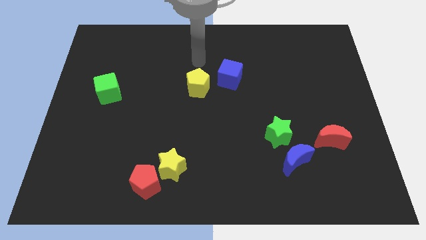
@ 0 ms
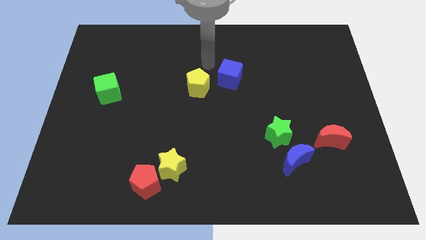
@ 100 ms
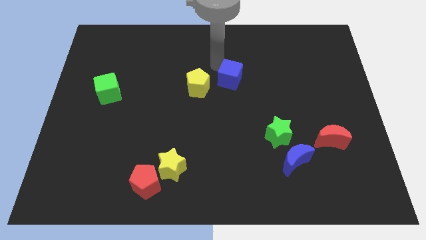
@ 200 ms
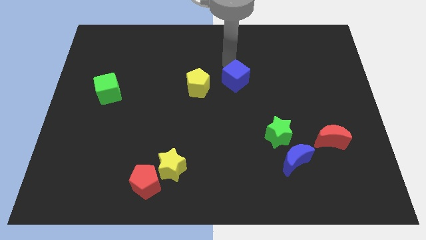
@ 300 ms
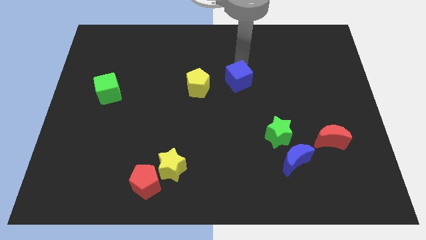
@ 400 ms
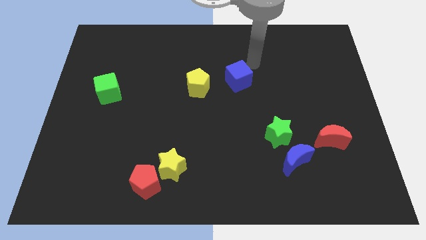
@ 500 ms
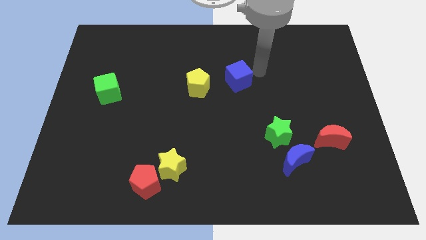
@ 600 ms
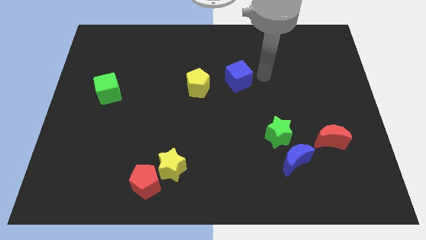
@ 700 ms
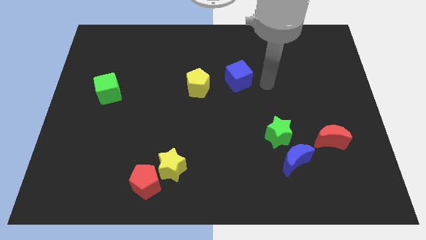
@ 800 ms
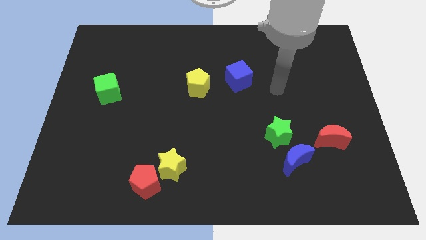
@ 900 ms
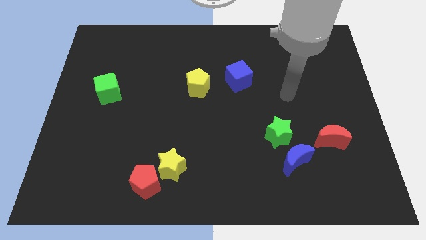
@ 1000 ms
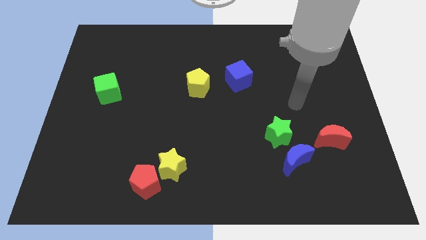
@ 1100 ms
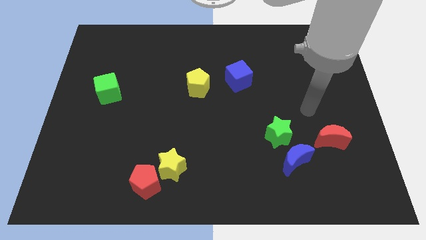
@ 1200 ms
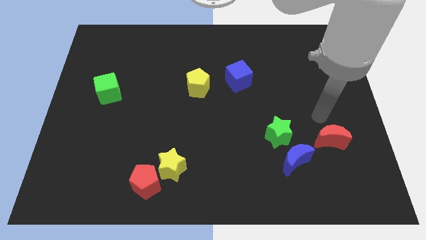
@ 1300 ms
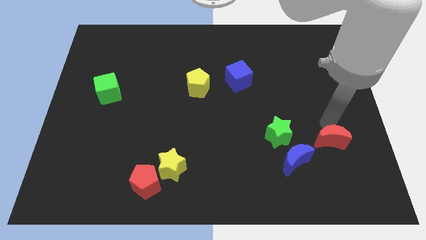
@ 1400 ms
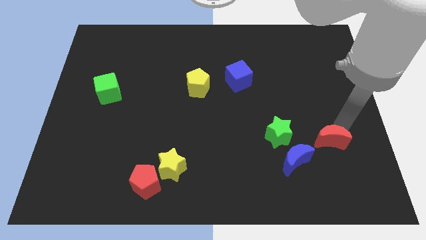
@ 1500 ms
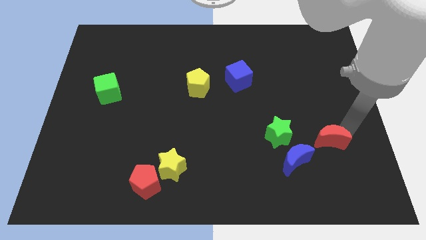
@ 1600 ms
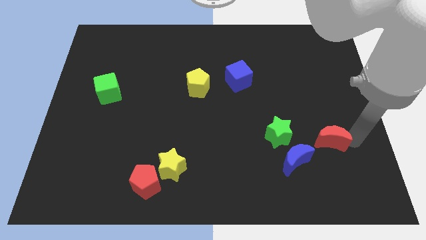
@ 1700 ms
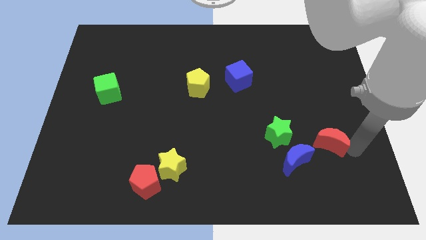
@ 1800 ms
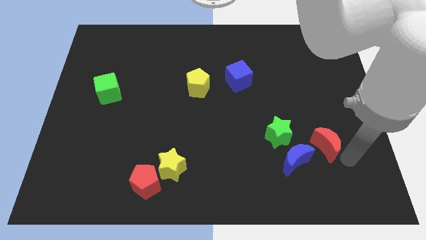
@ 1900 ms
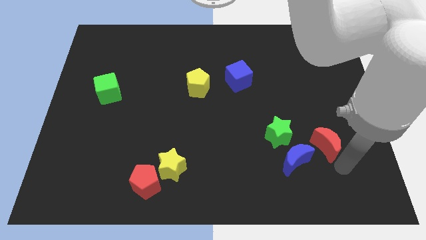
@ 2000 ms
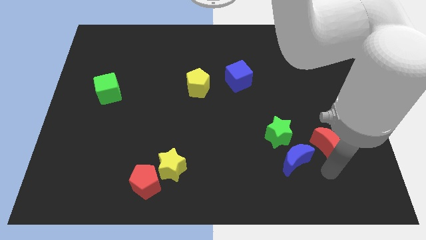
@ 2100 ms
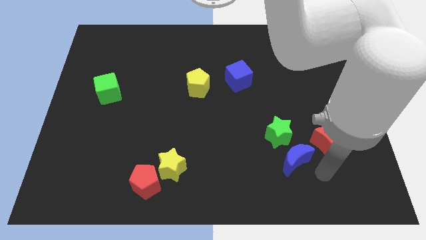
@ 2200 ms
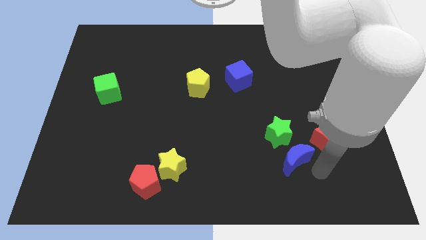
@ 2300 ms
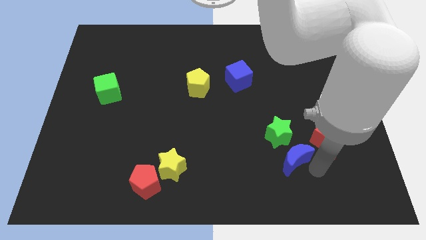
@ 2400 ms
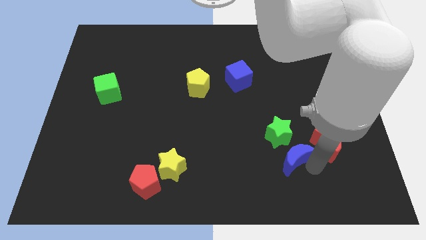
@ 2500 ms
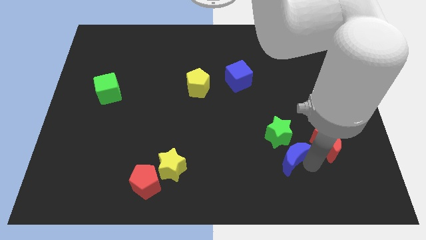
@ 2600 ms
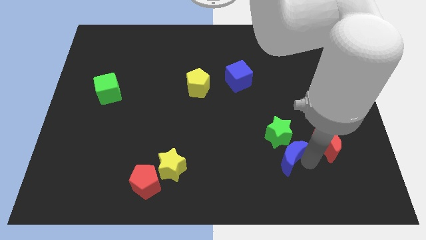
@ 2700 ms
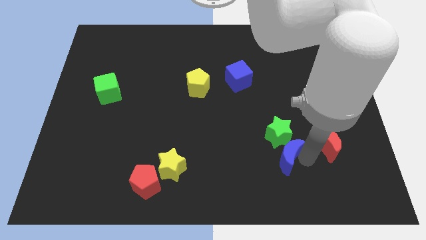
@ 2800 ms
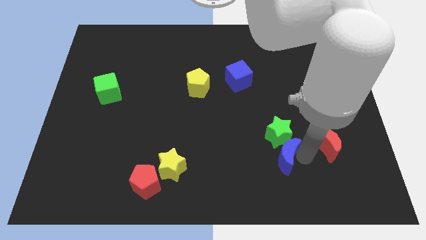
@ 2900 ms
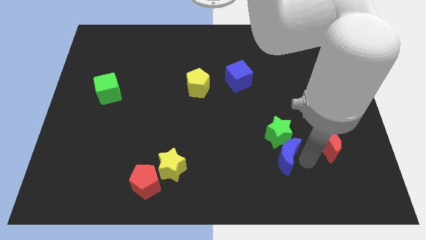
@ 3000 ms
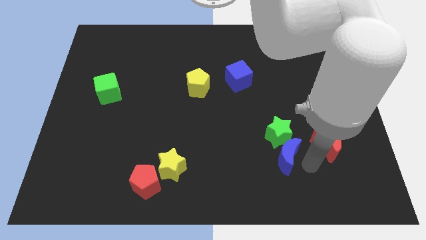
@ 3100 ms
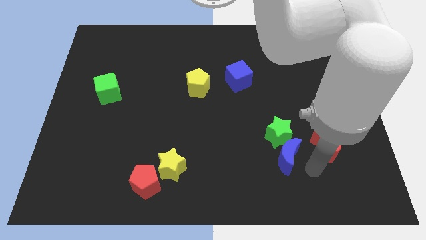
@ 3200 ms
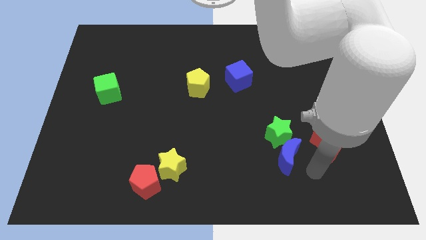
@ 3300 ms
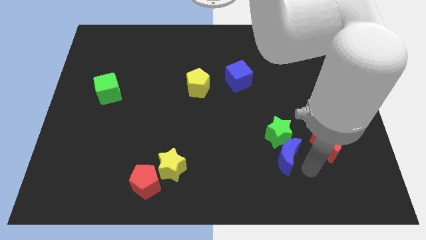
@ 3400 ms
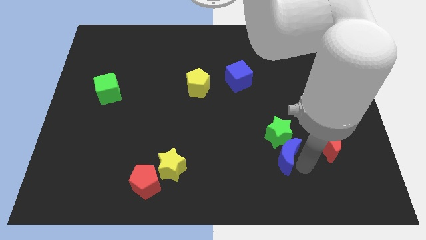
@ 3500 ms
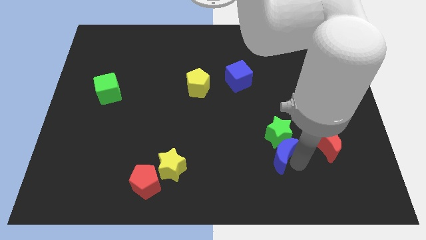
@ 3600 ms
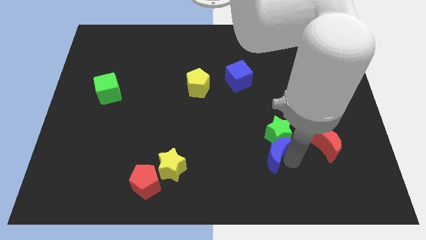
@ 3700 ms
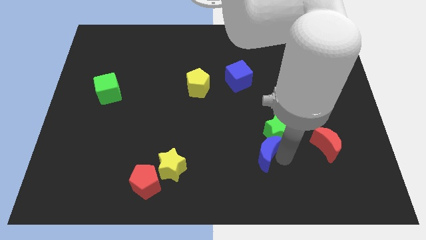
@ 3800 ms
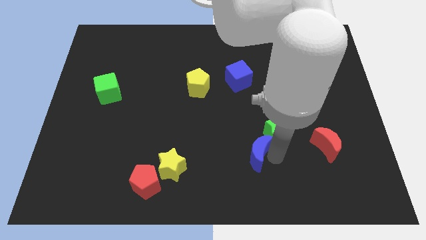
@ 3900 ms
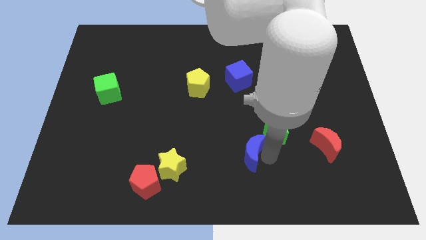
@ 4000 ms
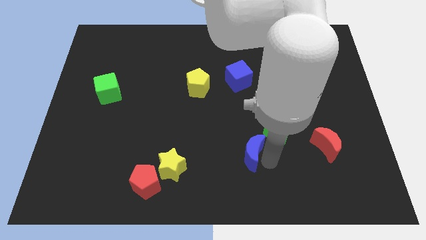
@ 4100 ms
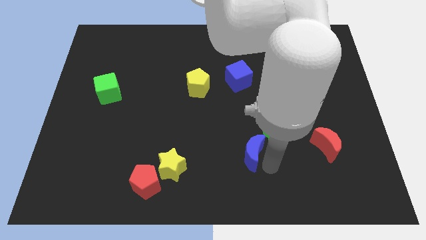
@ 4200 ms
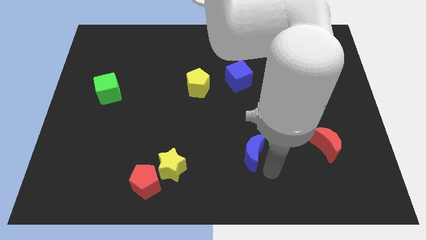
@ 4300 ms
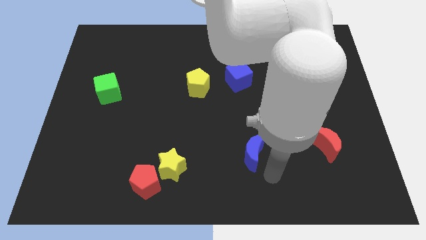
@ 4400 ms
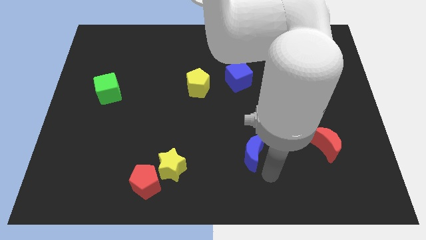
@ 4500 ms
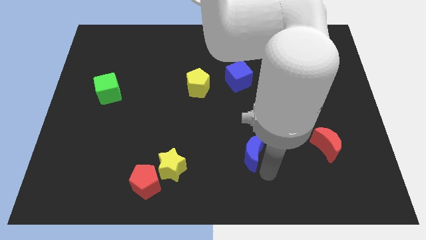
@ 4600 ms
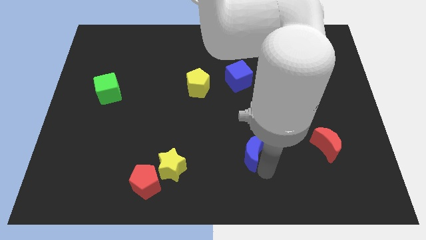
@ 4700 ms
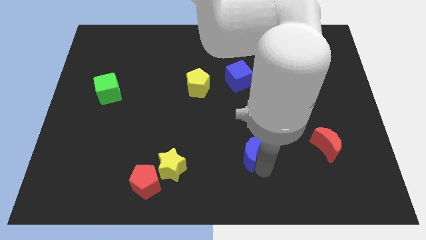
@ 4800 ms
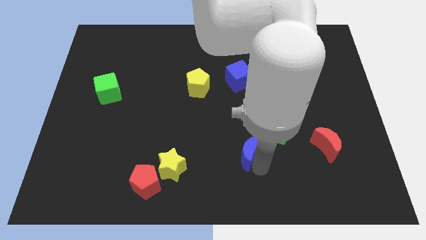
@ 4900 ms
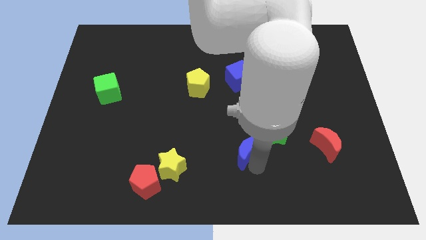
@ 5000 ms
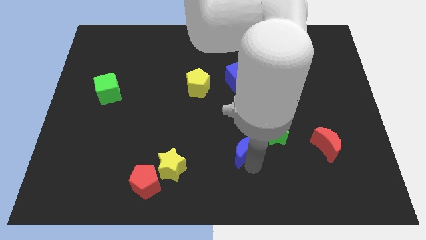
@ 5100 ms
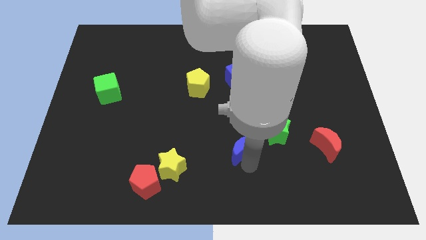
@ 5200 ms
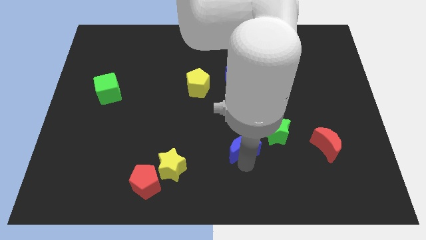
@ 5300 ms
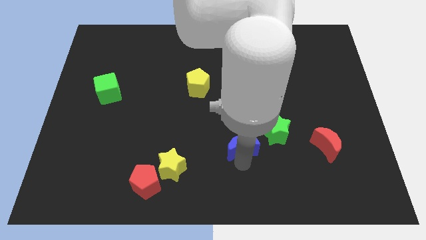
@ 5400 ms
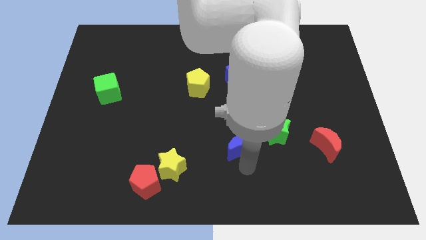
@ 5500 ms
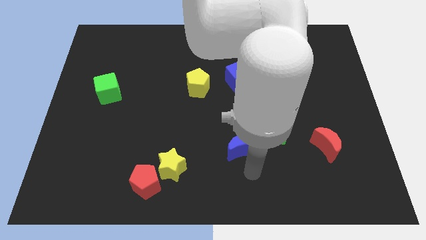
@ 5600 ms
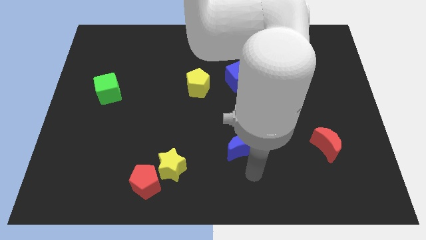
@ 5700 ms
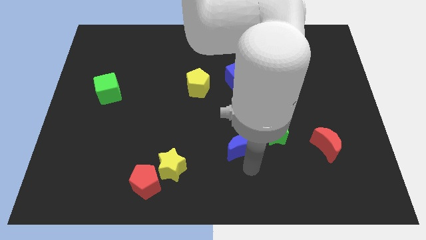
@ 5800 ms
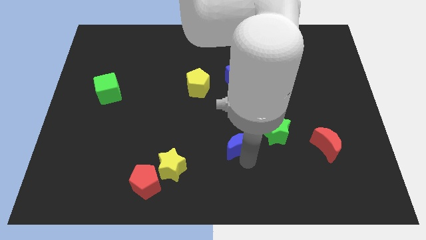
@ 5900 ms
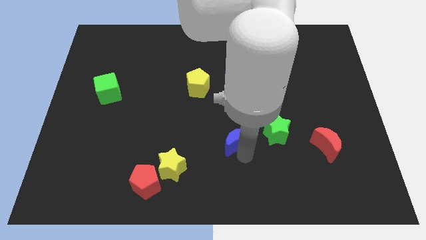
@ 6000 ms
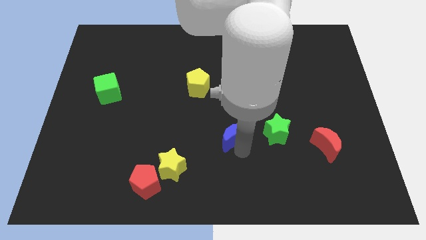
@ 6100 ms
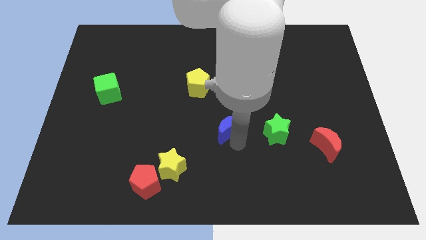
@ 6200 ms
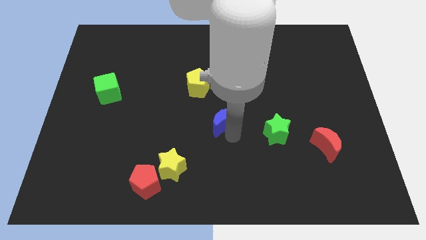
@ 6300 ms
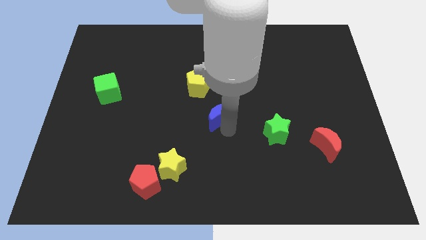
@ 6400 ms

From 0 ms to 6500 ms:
put the blue moon diagonally down and to the right of the yellow pentagon
